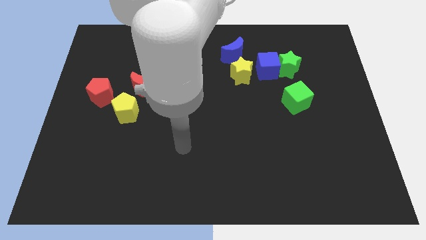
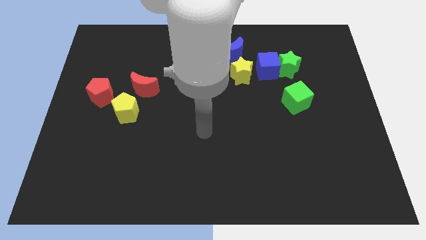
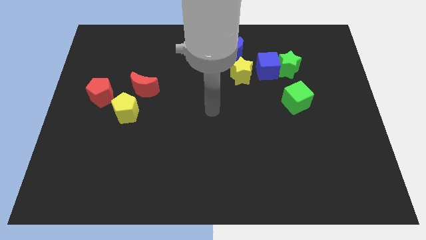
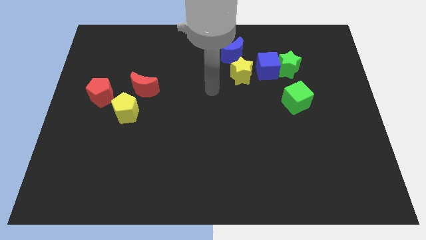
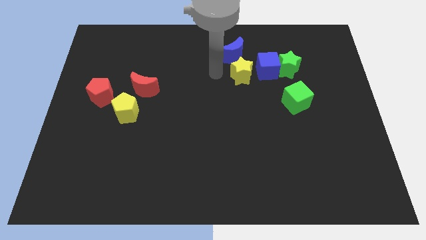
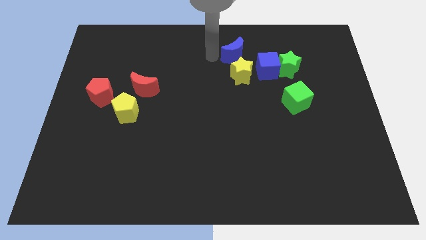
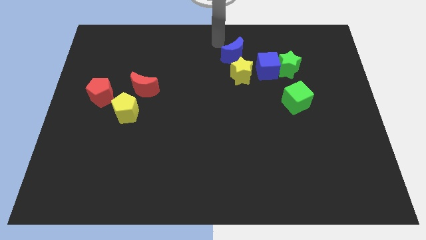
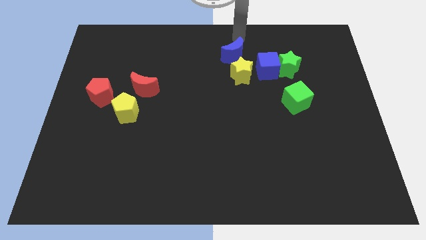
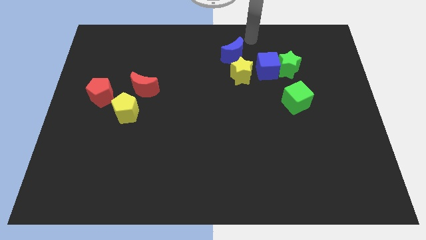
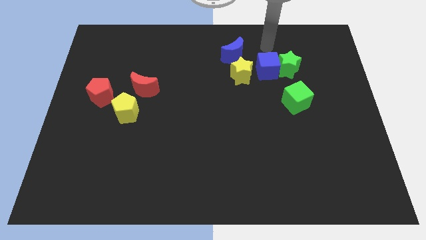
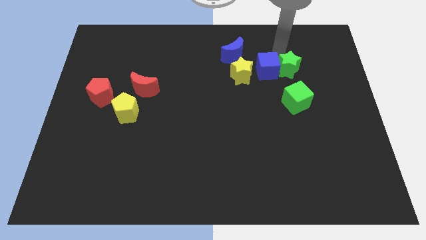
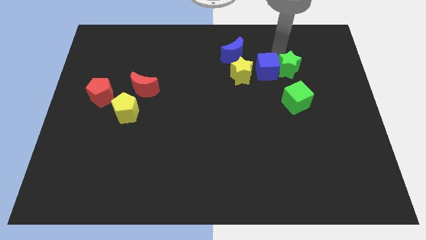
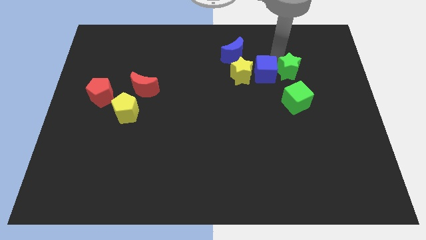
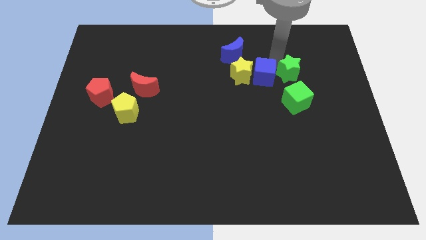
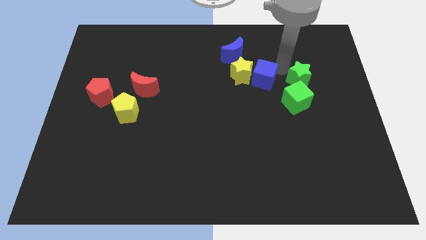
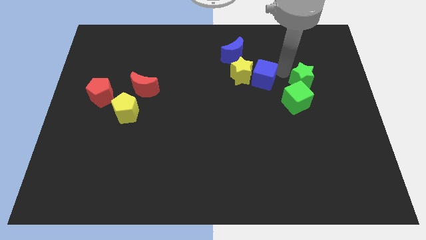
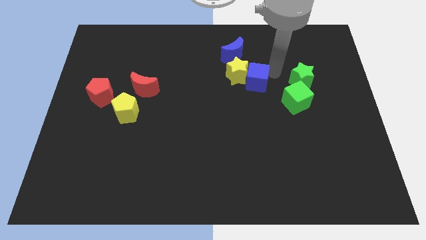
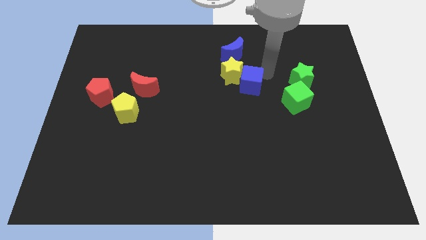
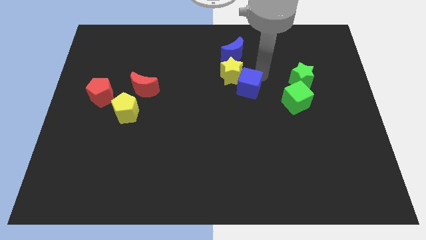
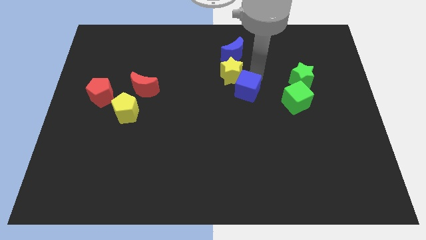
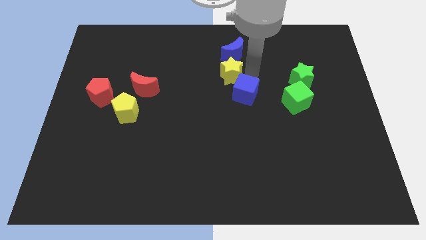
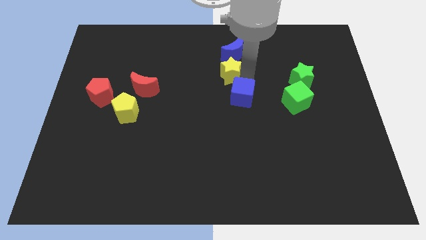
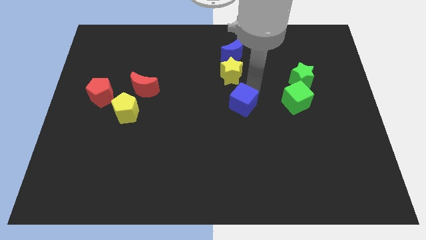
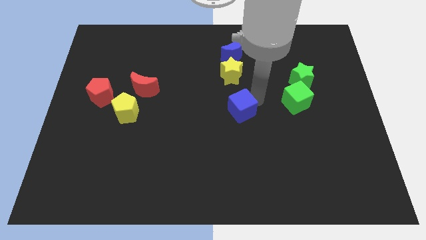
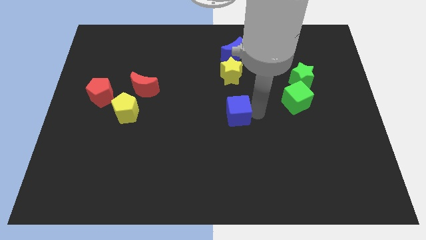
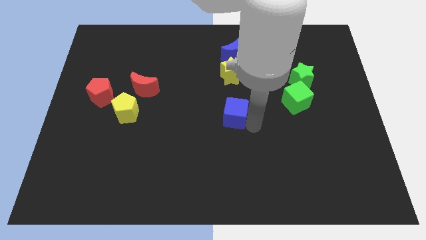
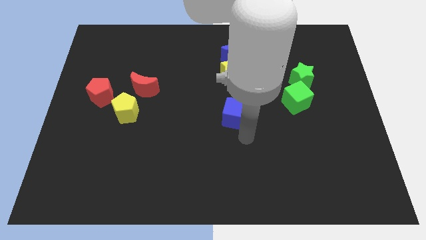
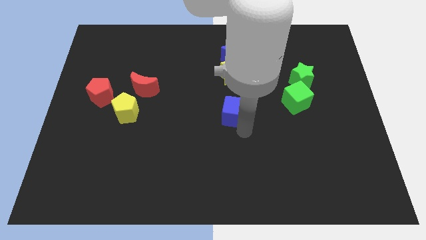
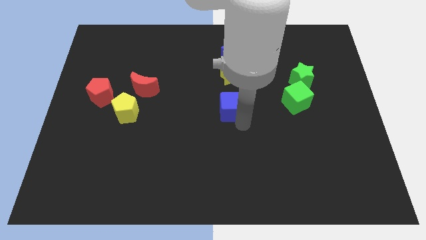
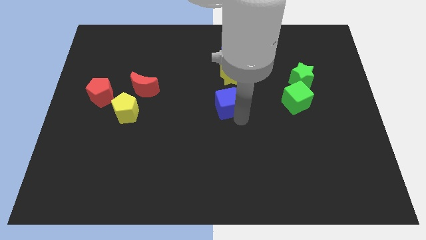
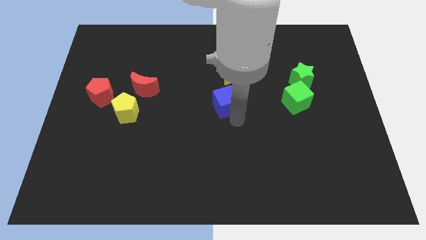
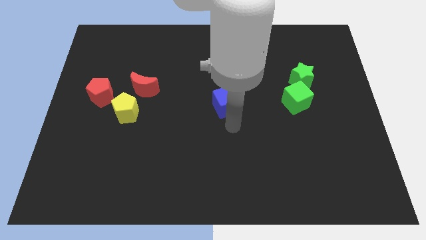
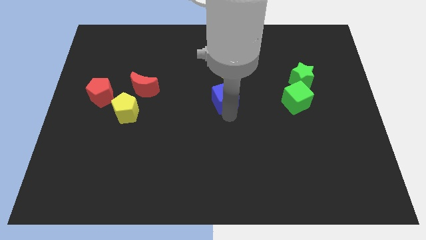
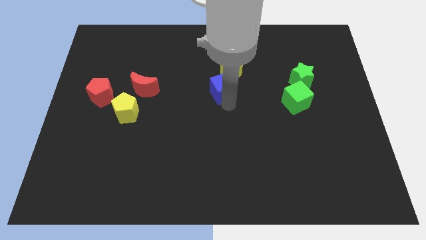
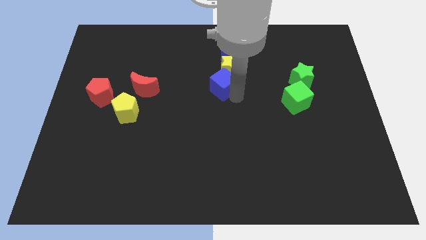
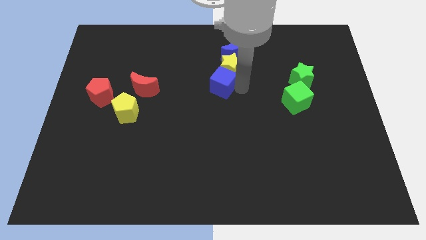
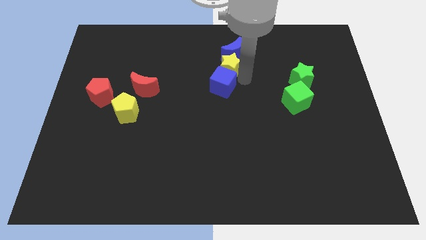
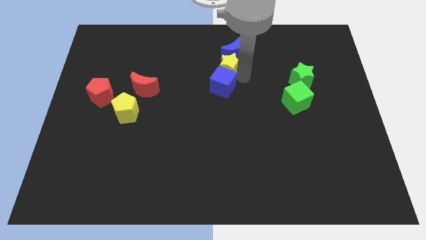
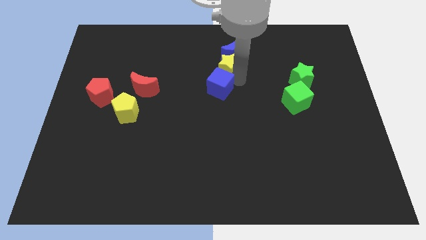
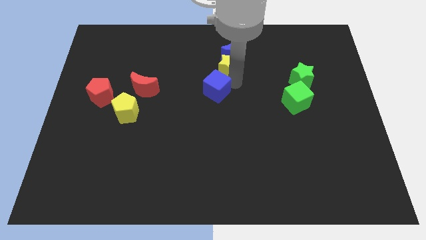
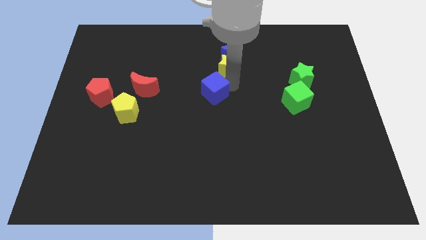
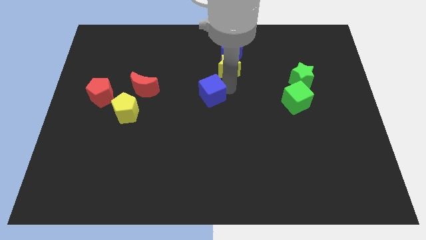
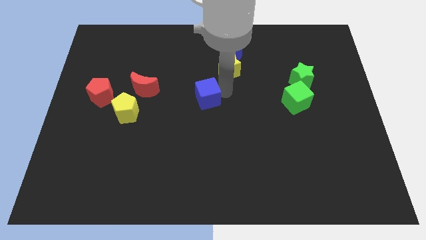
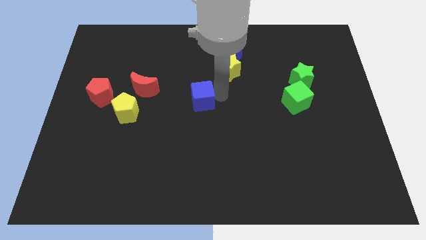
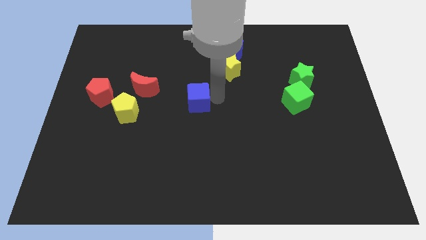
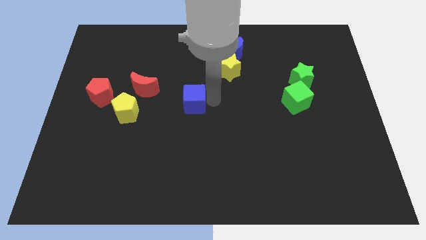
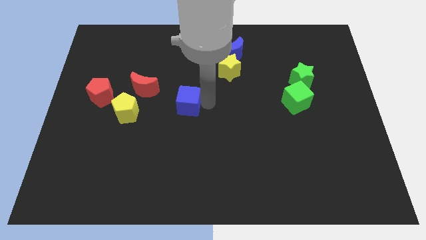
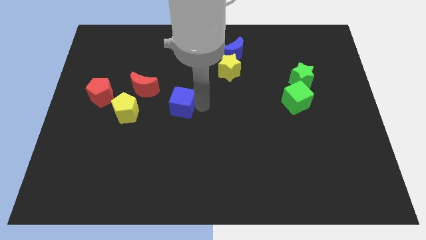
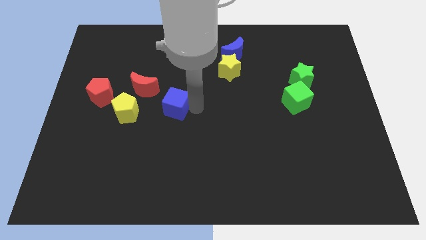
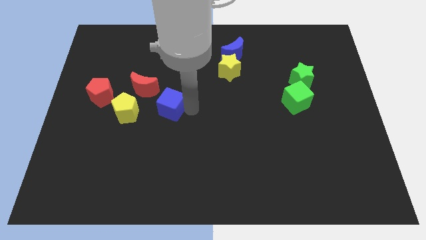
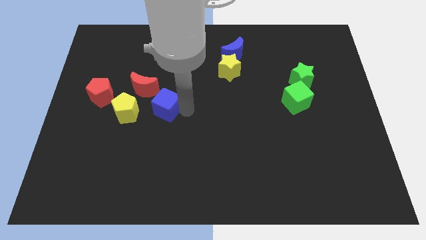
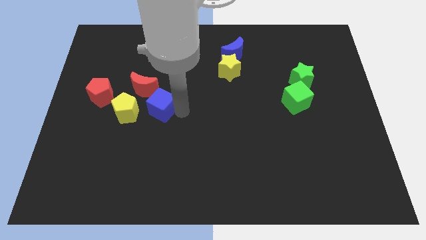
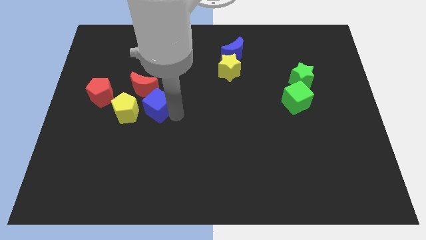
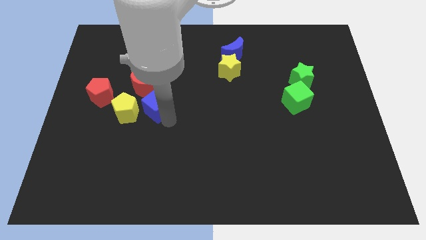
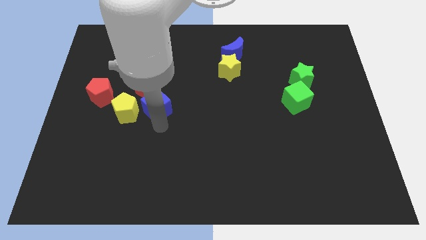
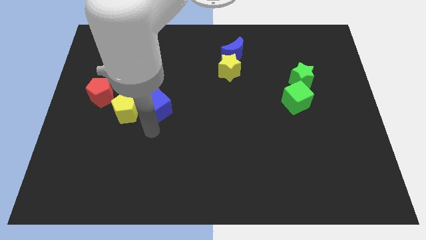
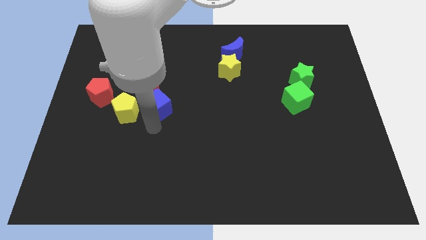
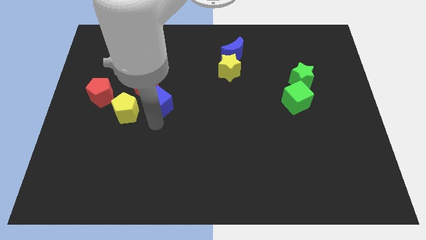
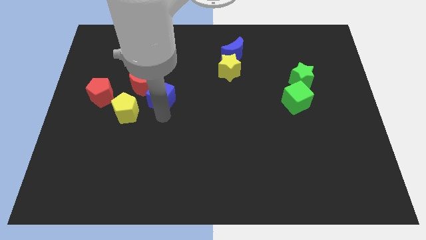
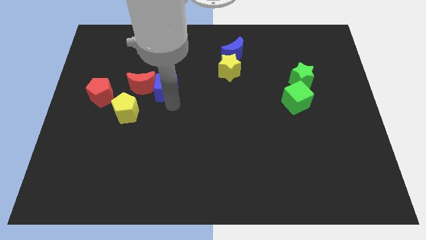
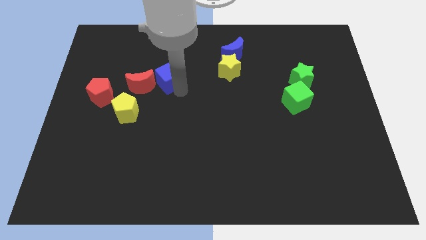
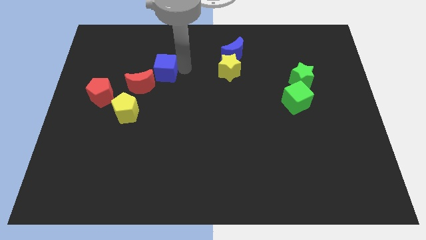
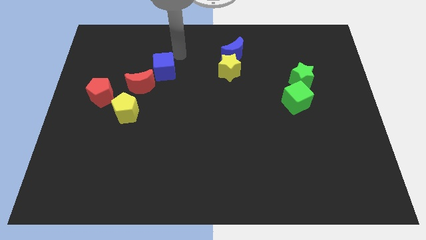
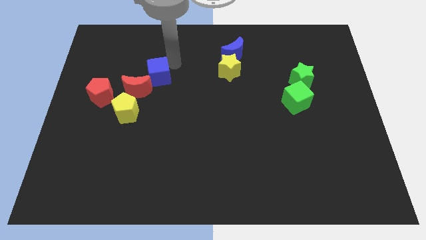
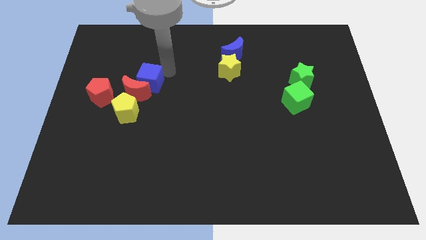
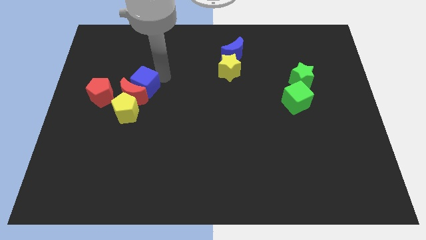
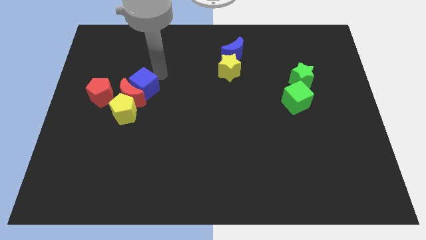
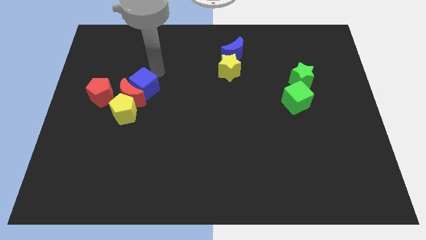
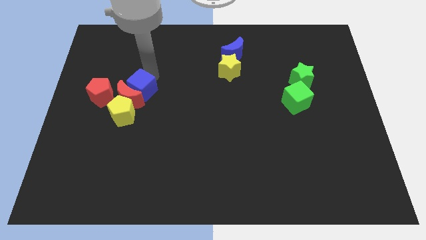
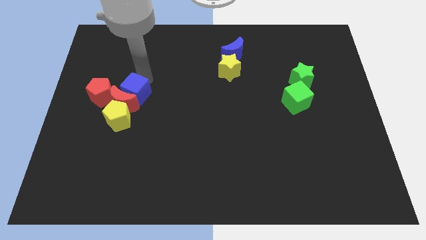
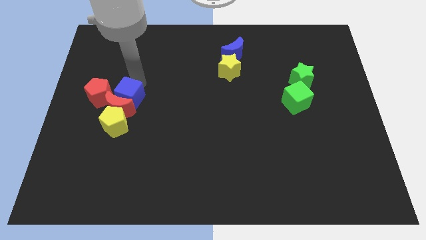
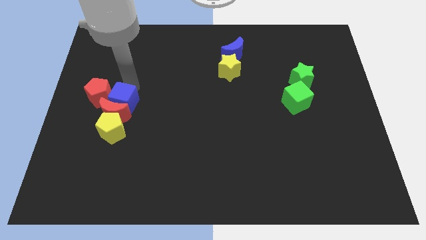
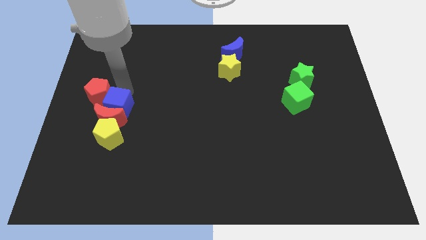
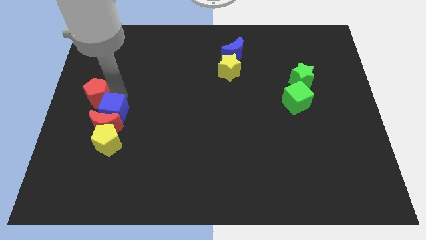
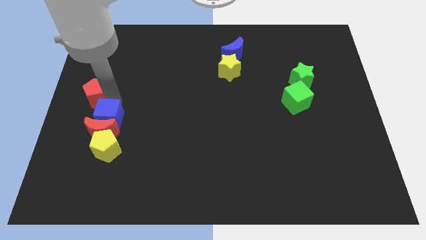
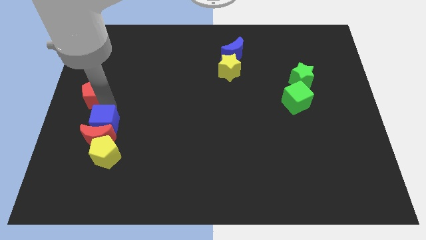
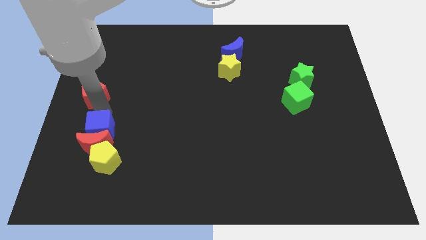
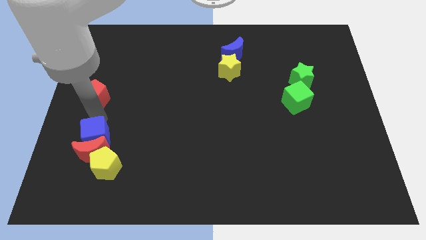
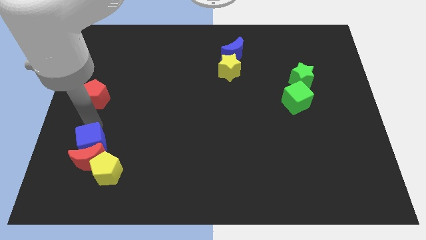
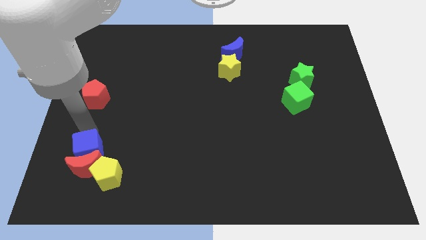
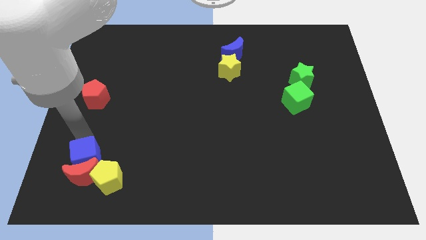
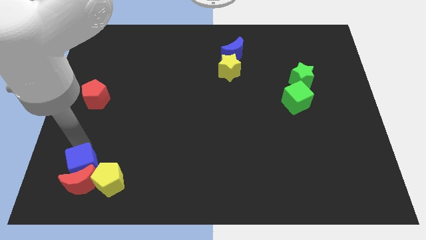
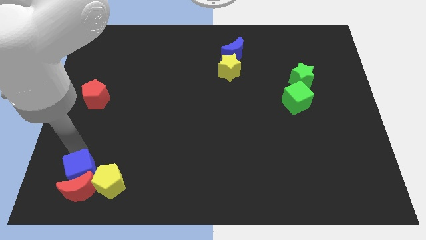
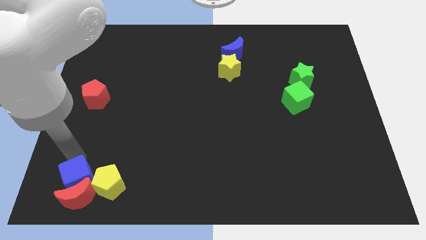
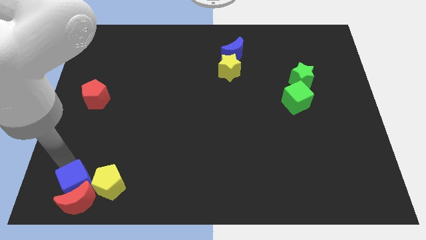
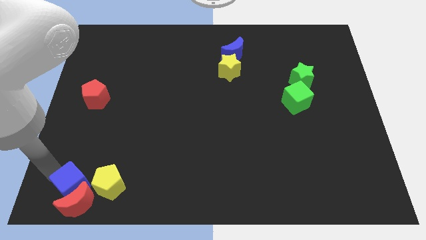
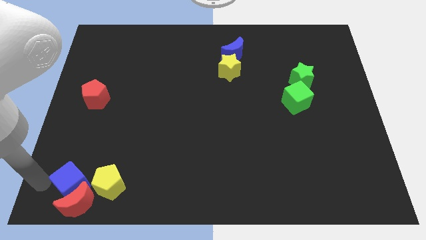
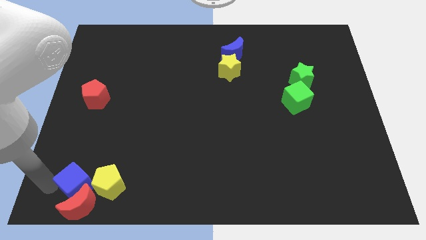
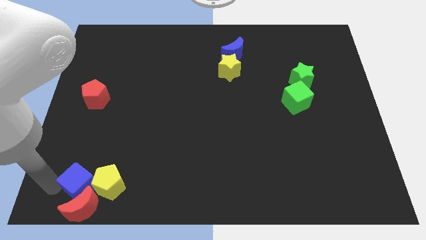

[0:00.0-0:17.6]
move the blue cube towards the yellow pentagon
